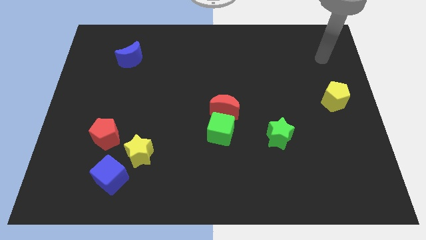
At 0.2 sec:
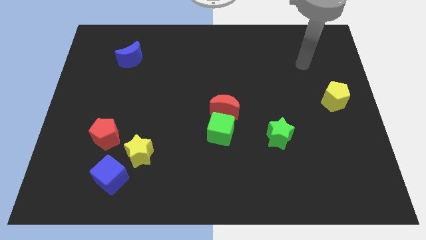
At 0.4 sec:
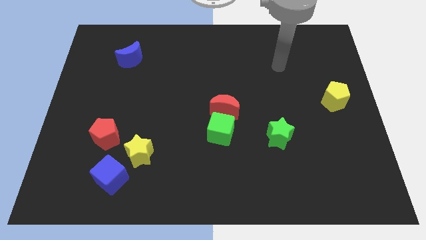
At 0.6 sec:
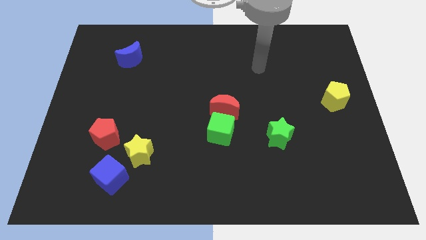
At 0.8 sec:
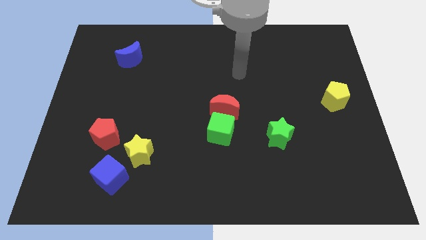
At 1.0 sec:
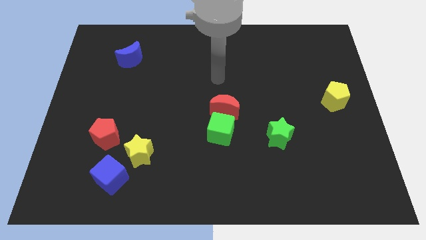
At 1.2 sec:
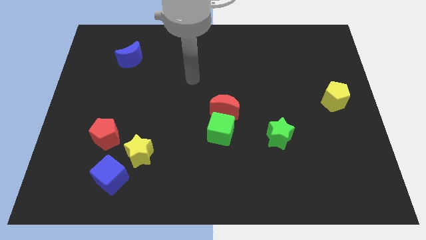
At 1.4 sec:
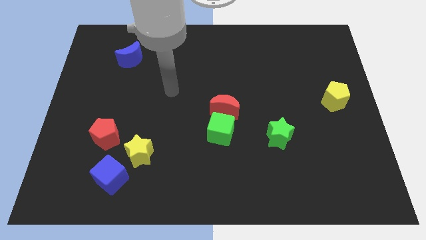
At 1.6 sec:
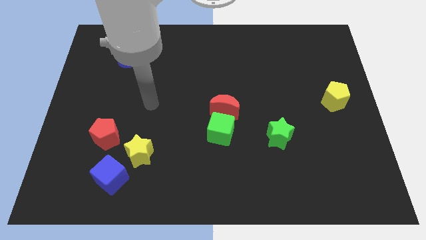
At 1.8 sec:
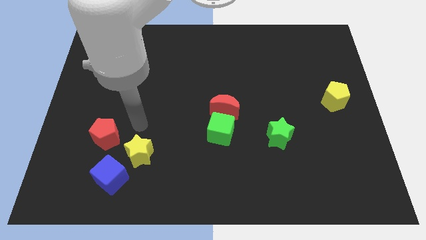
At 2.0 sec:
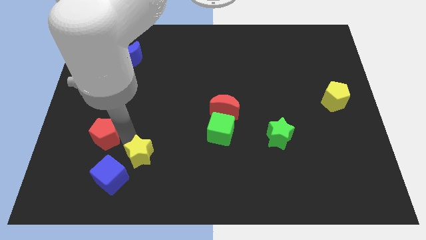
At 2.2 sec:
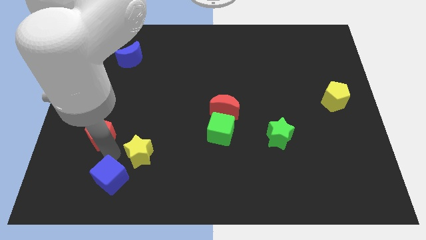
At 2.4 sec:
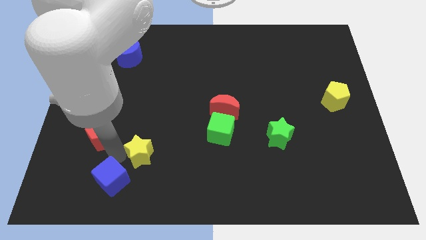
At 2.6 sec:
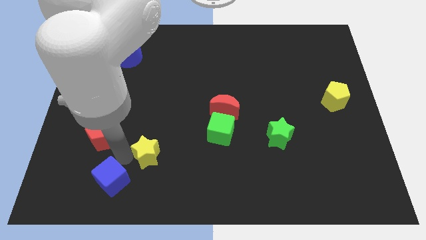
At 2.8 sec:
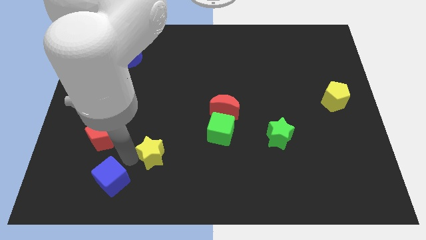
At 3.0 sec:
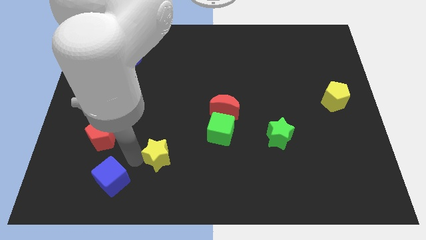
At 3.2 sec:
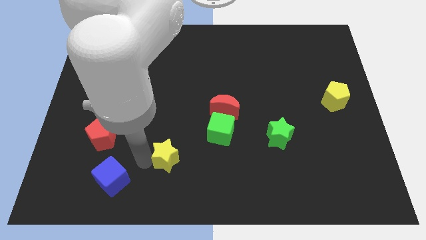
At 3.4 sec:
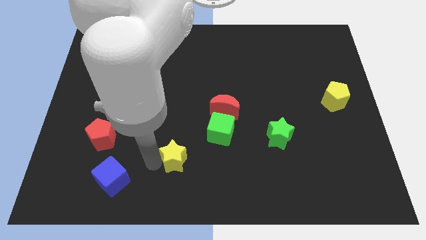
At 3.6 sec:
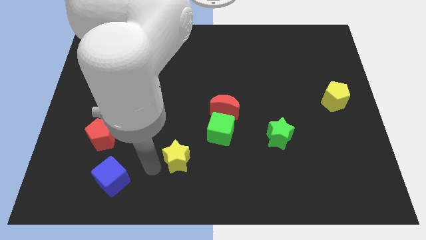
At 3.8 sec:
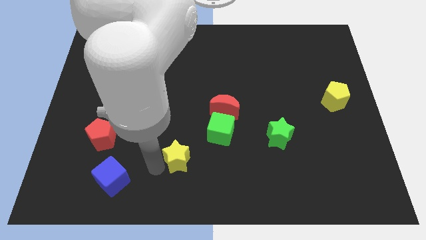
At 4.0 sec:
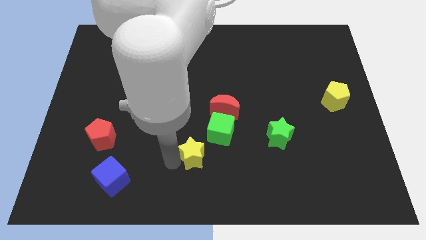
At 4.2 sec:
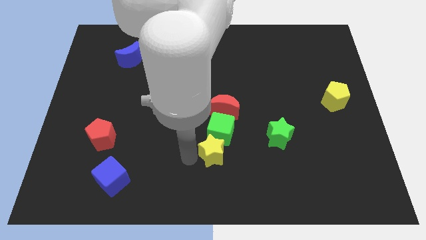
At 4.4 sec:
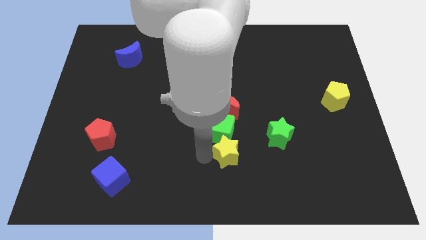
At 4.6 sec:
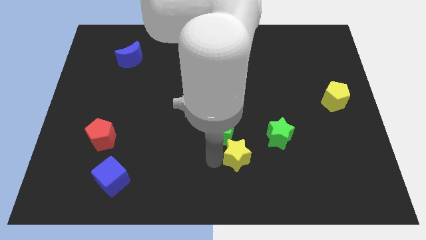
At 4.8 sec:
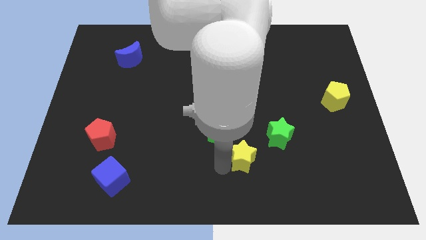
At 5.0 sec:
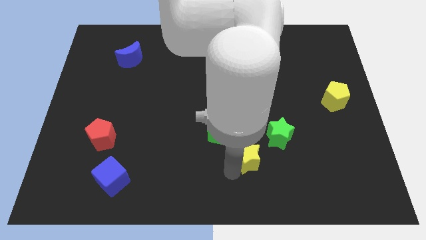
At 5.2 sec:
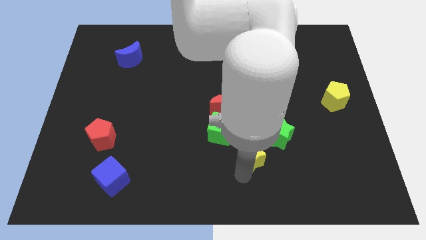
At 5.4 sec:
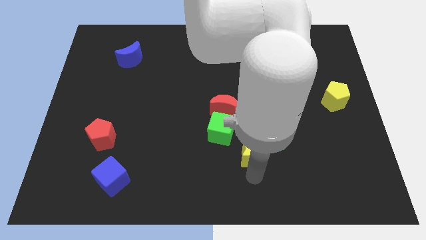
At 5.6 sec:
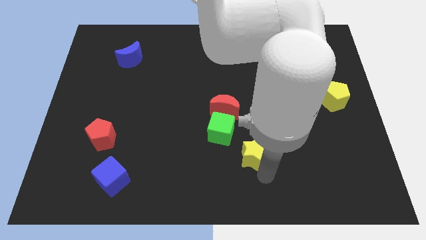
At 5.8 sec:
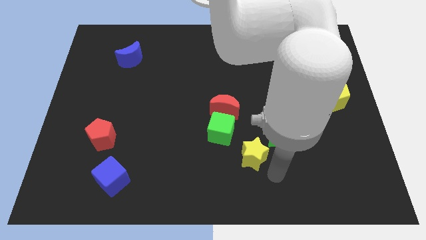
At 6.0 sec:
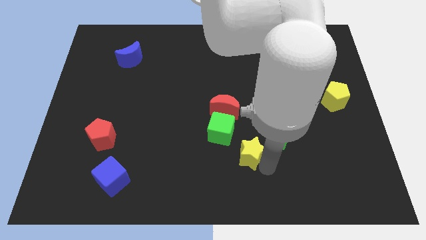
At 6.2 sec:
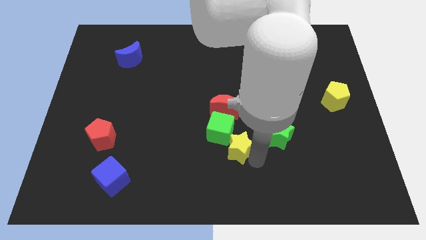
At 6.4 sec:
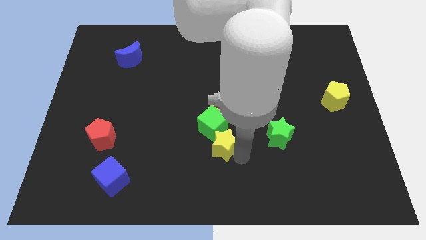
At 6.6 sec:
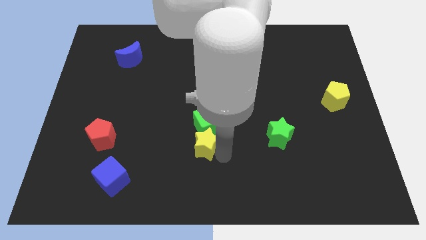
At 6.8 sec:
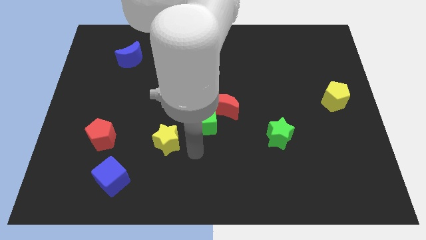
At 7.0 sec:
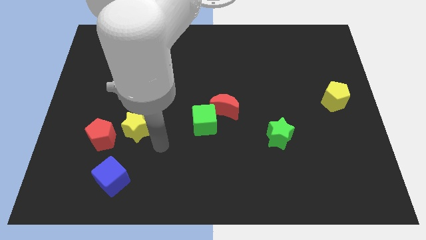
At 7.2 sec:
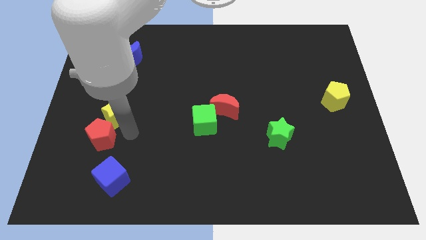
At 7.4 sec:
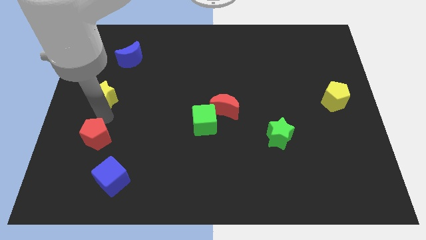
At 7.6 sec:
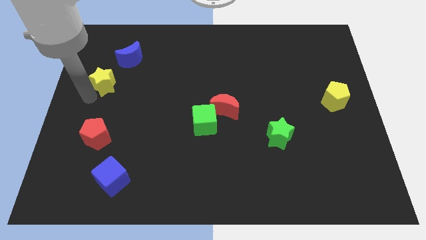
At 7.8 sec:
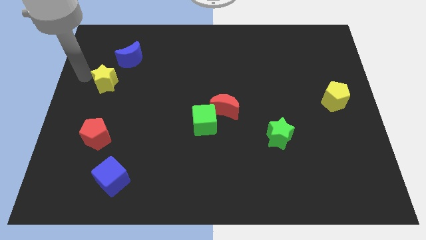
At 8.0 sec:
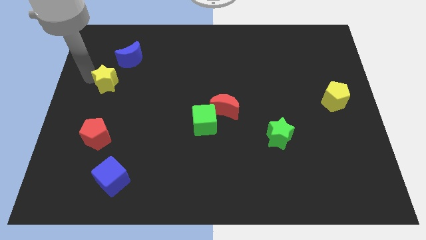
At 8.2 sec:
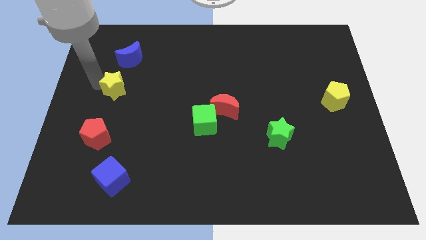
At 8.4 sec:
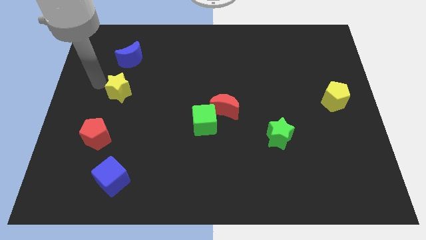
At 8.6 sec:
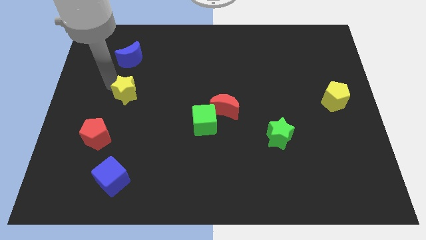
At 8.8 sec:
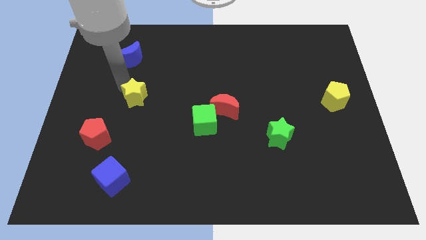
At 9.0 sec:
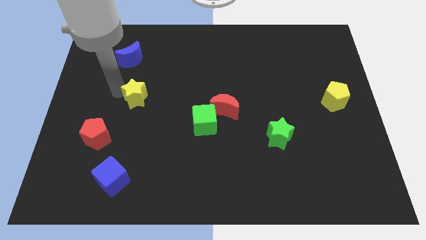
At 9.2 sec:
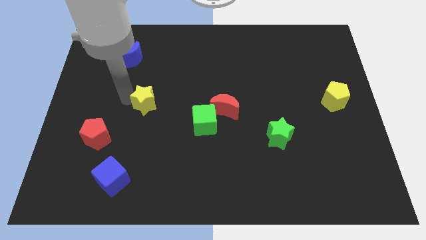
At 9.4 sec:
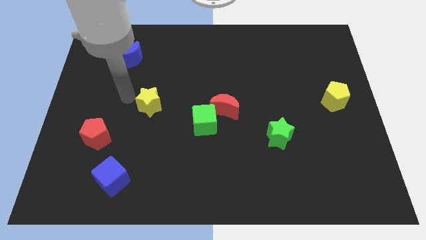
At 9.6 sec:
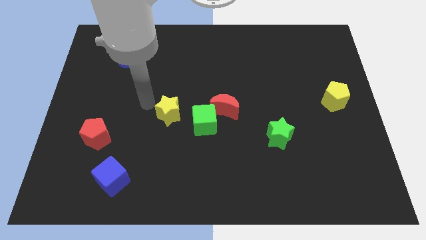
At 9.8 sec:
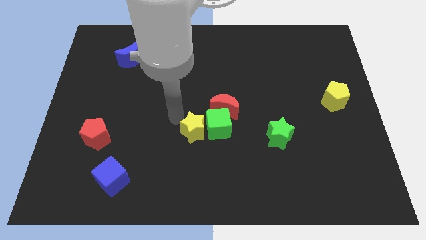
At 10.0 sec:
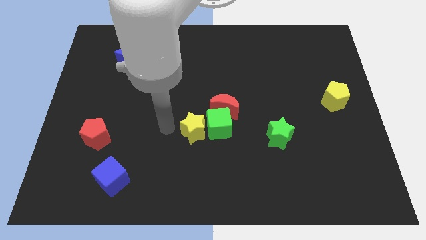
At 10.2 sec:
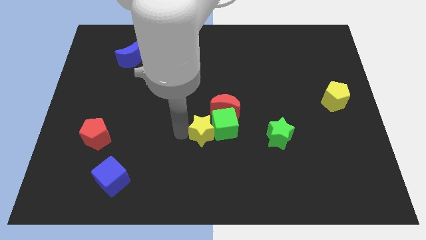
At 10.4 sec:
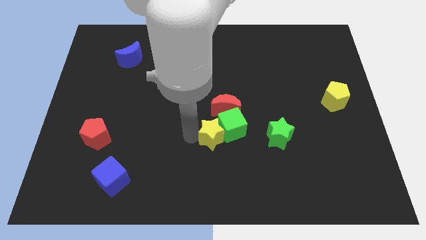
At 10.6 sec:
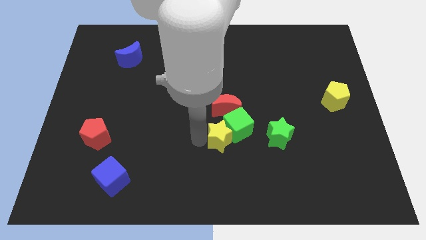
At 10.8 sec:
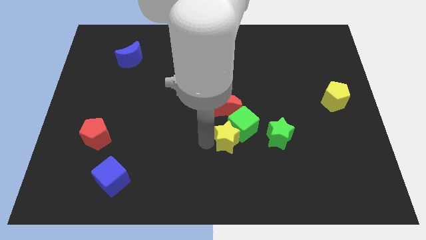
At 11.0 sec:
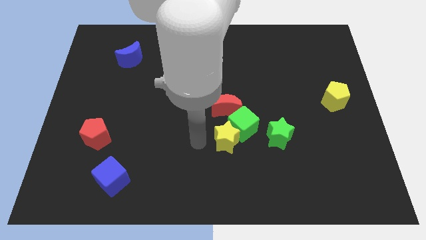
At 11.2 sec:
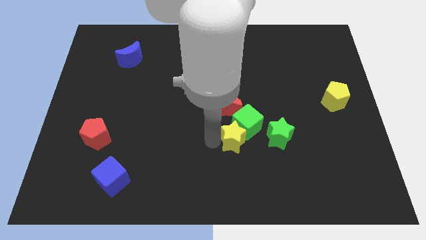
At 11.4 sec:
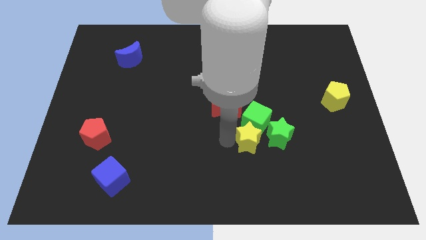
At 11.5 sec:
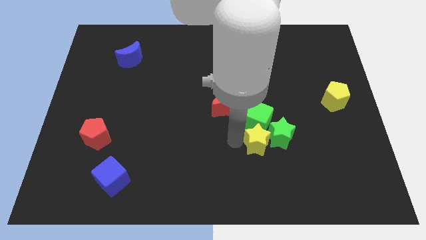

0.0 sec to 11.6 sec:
move the yellow star next to the green star

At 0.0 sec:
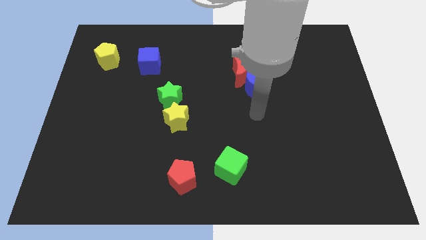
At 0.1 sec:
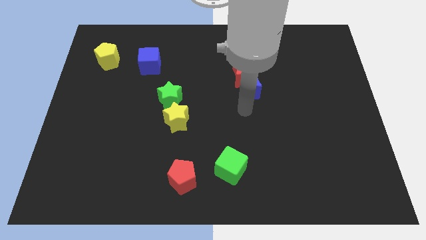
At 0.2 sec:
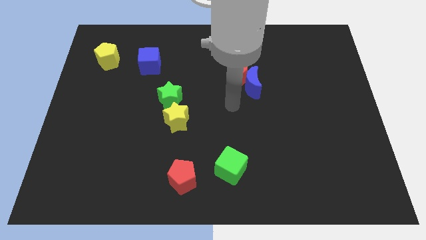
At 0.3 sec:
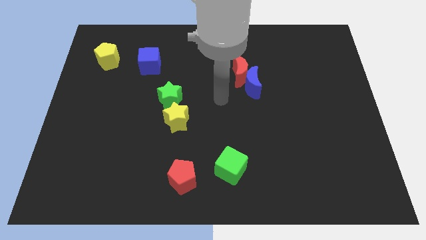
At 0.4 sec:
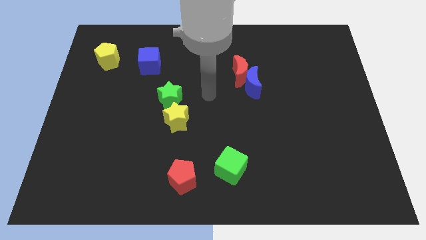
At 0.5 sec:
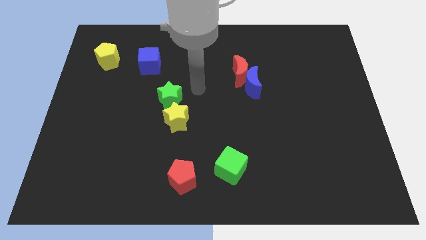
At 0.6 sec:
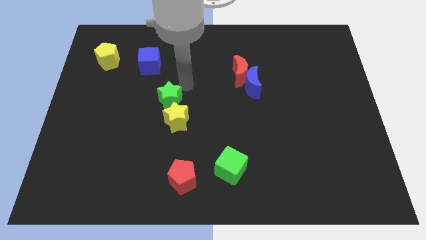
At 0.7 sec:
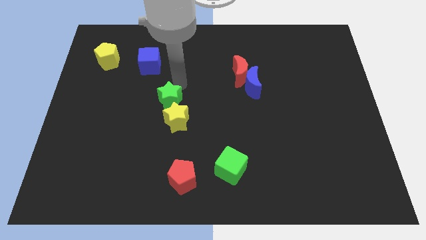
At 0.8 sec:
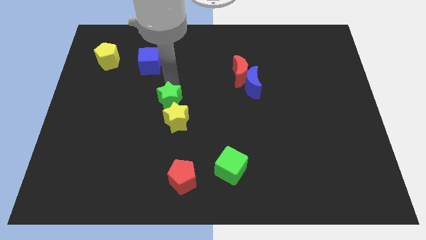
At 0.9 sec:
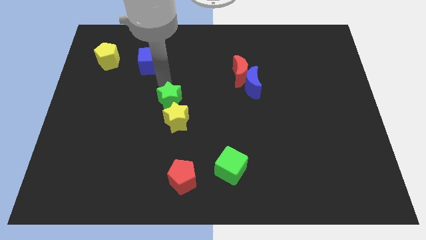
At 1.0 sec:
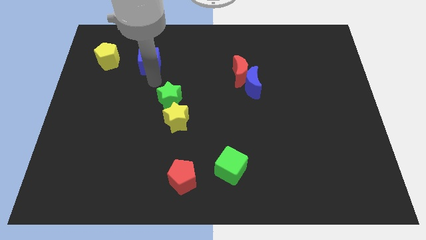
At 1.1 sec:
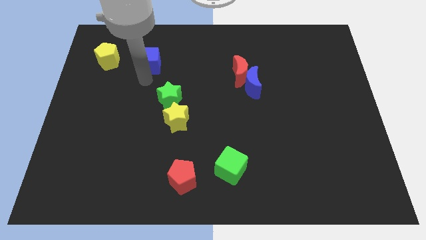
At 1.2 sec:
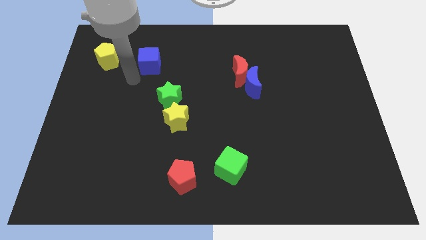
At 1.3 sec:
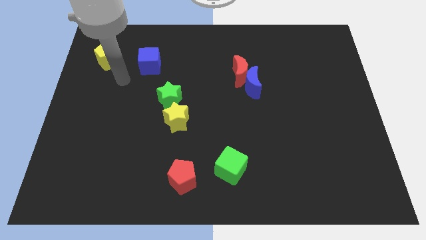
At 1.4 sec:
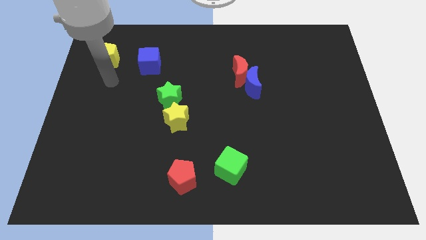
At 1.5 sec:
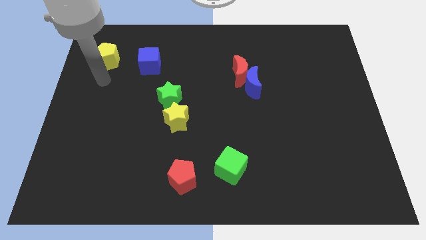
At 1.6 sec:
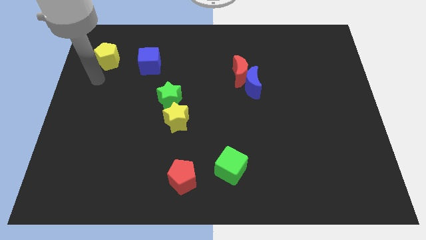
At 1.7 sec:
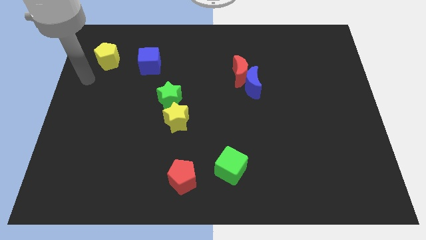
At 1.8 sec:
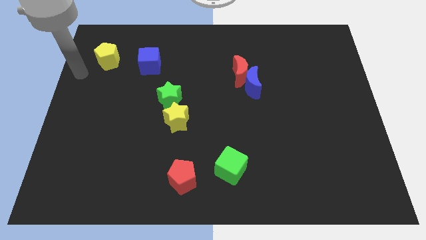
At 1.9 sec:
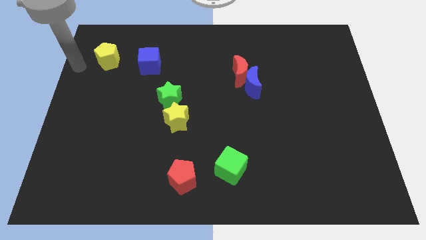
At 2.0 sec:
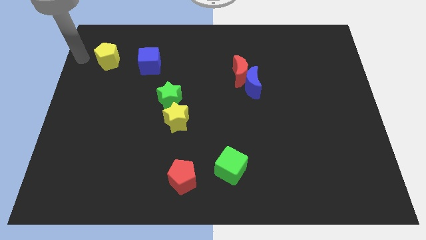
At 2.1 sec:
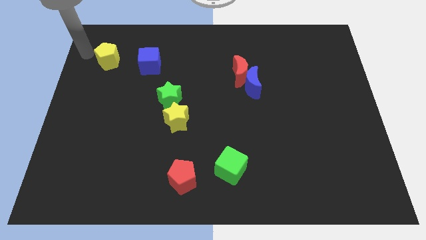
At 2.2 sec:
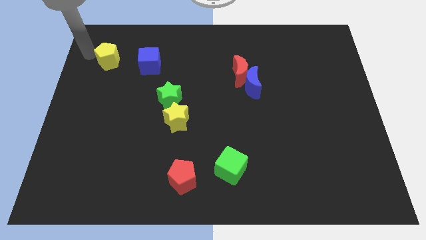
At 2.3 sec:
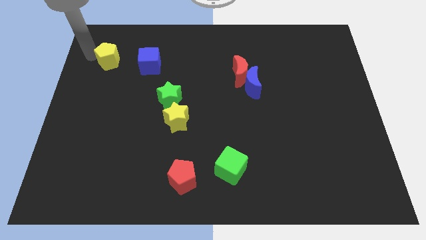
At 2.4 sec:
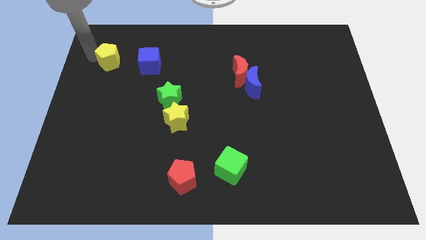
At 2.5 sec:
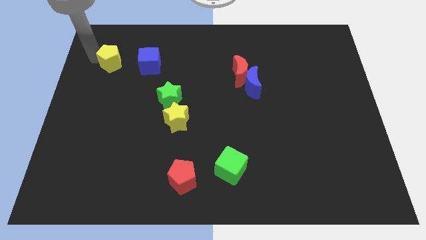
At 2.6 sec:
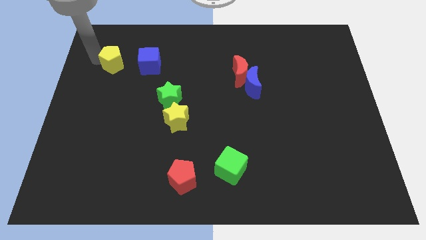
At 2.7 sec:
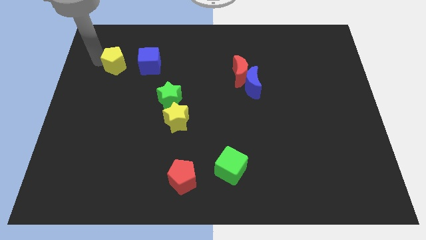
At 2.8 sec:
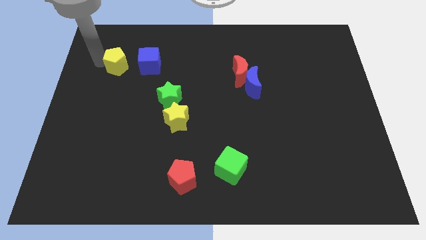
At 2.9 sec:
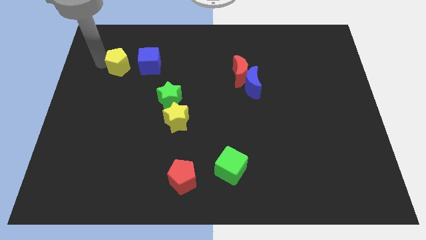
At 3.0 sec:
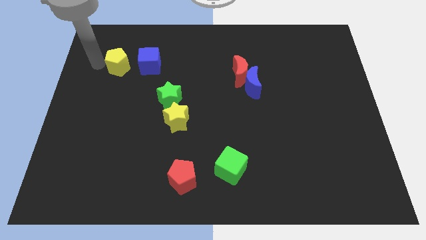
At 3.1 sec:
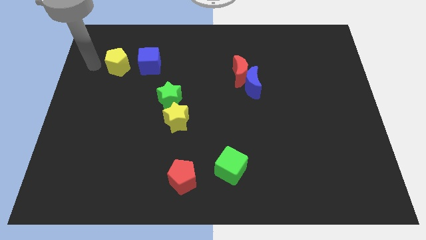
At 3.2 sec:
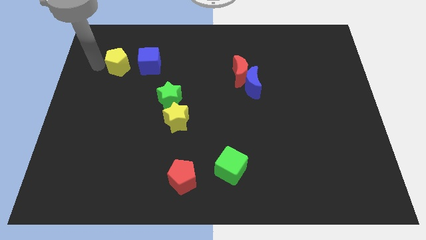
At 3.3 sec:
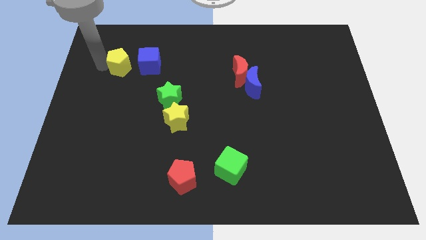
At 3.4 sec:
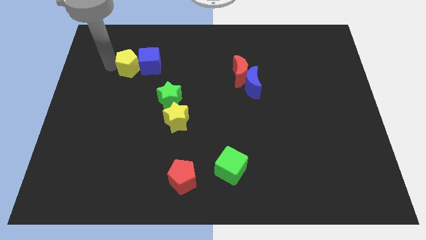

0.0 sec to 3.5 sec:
slide the yellow pentagon close to the blue cube
